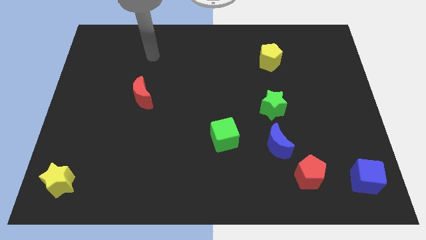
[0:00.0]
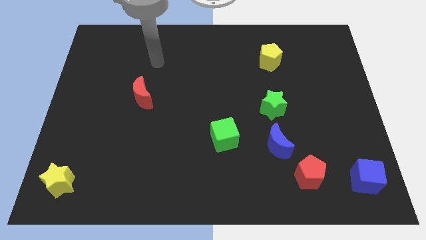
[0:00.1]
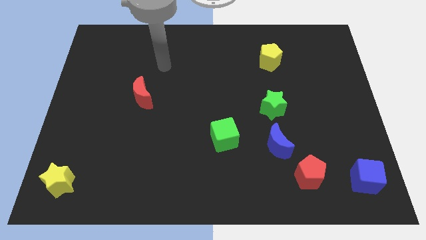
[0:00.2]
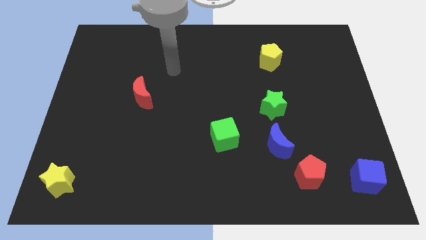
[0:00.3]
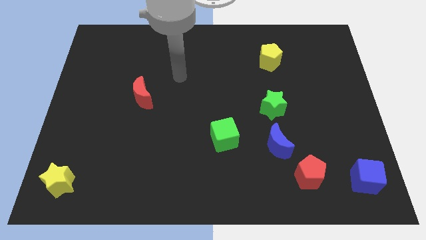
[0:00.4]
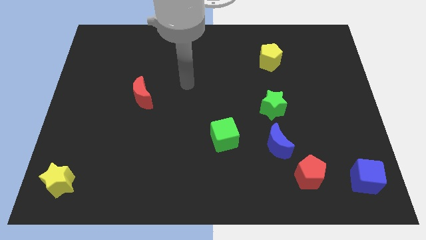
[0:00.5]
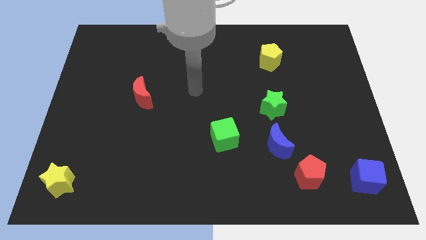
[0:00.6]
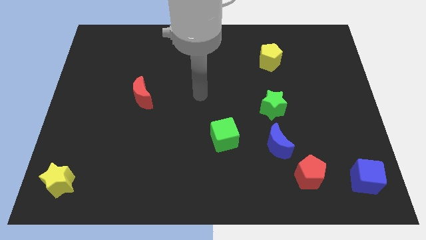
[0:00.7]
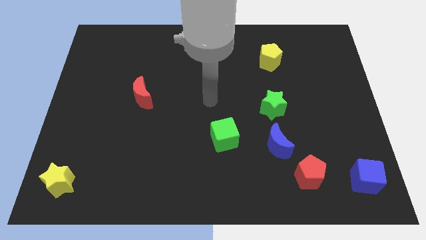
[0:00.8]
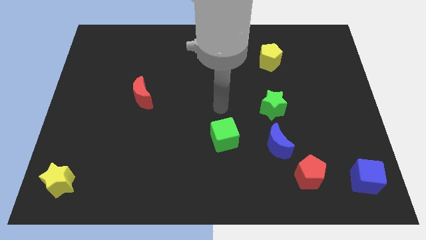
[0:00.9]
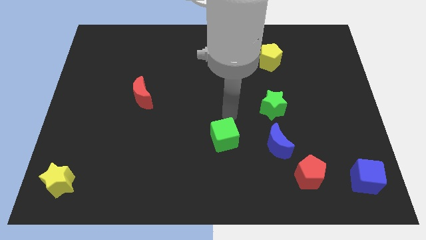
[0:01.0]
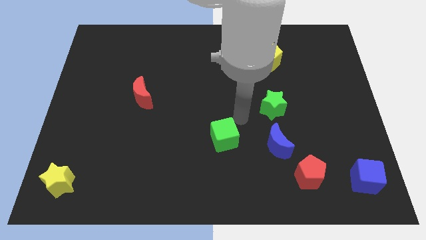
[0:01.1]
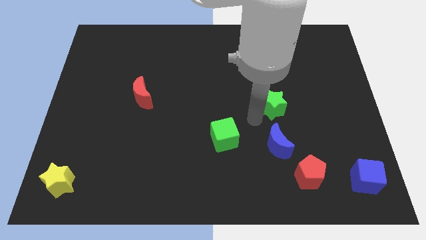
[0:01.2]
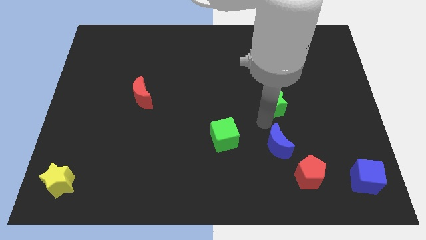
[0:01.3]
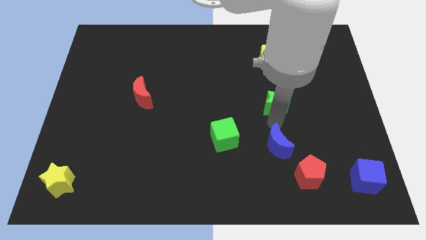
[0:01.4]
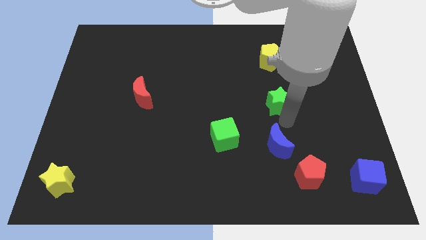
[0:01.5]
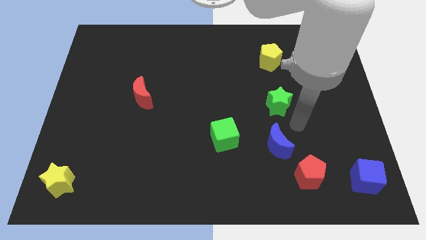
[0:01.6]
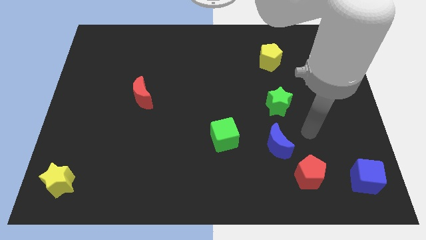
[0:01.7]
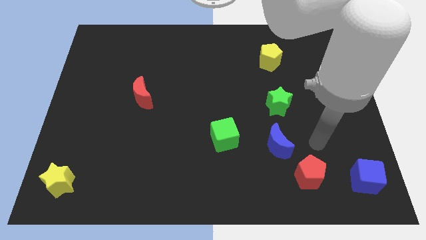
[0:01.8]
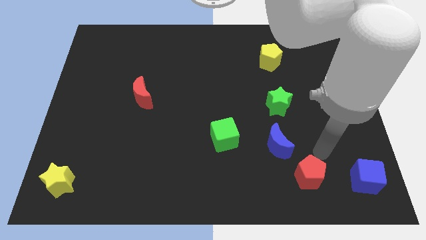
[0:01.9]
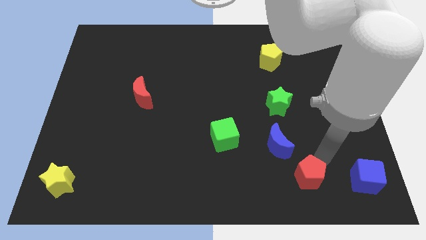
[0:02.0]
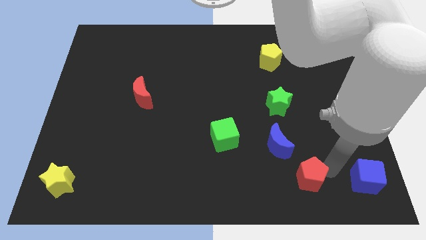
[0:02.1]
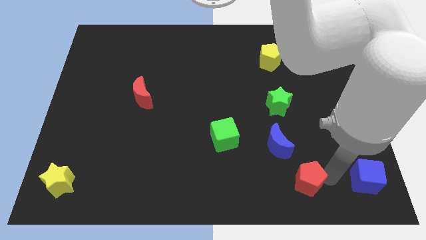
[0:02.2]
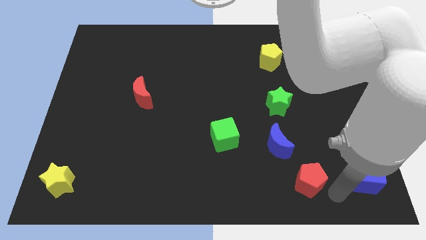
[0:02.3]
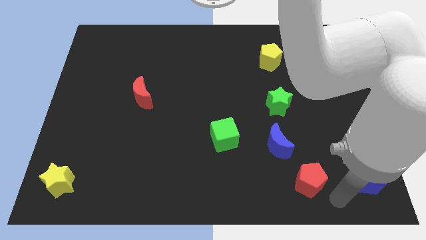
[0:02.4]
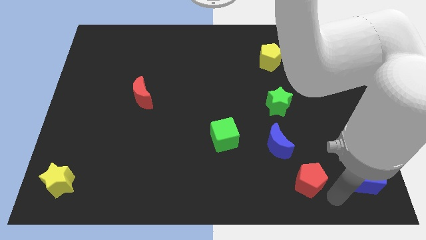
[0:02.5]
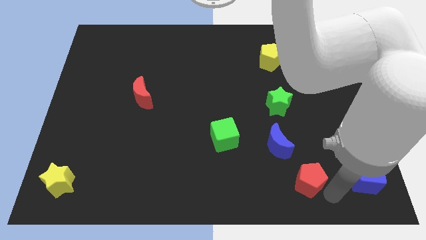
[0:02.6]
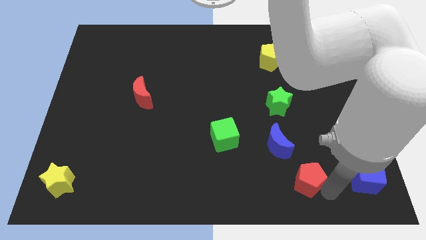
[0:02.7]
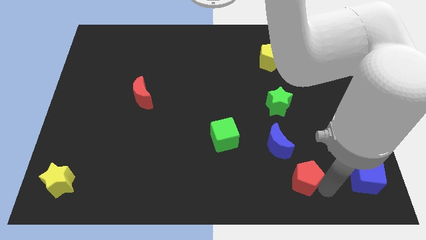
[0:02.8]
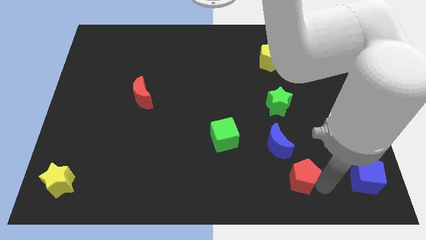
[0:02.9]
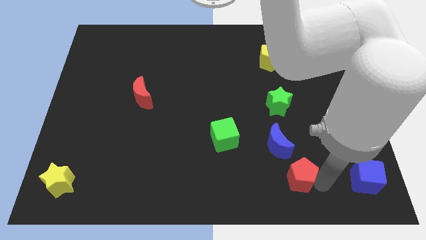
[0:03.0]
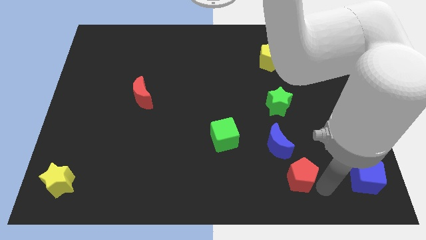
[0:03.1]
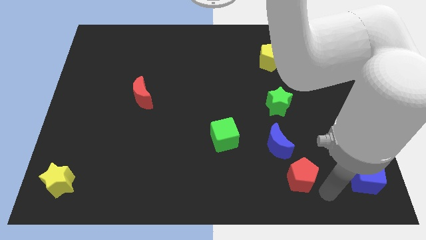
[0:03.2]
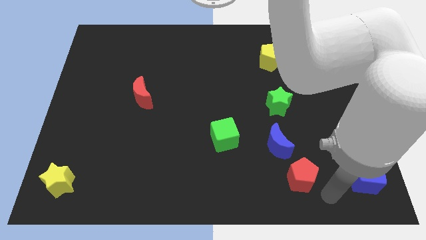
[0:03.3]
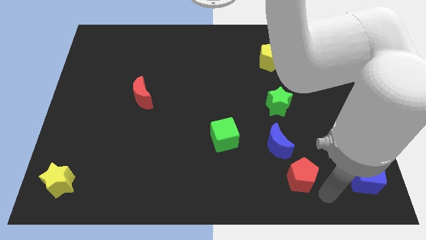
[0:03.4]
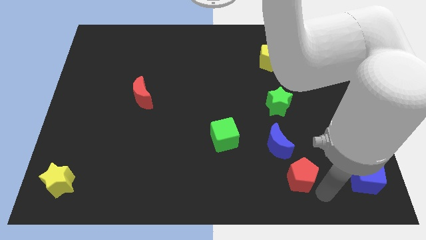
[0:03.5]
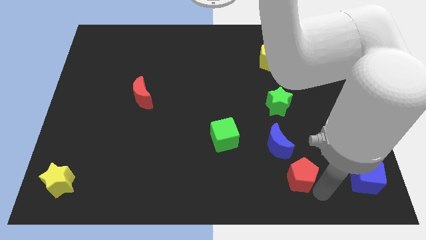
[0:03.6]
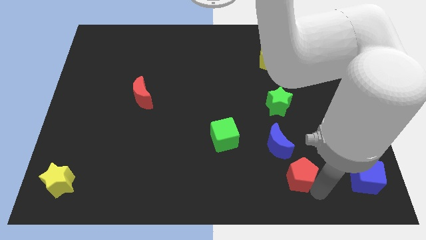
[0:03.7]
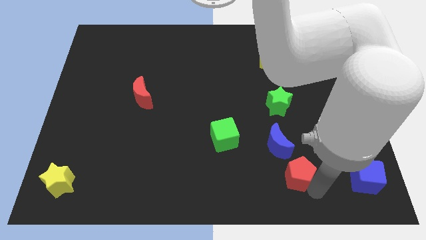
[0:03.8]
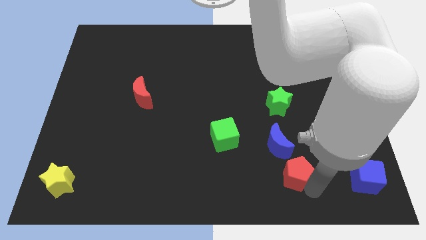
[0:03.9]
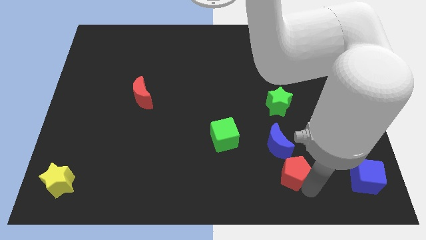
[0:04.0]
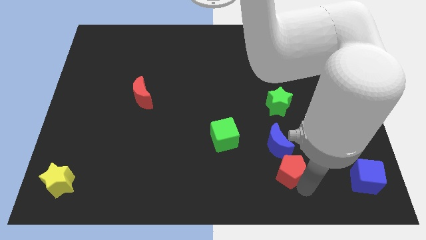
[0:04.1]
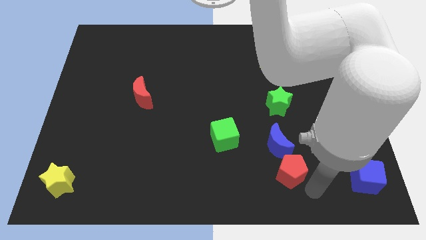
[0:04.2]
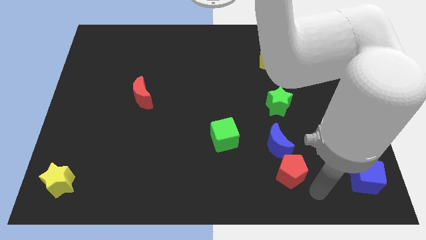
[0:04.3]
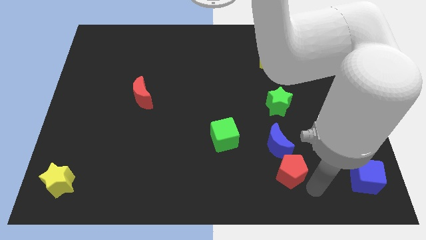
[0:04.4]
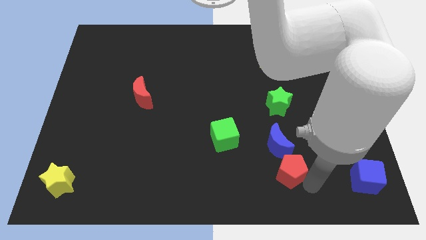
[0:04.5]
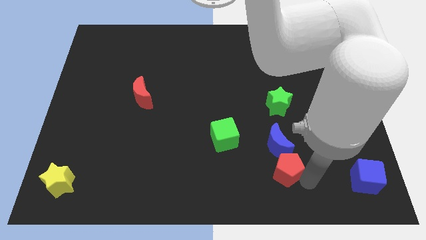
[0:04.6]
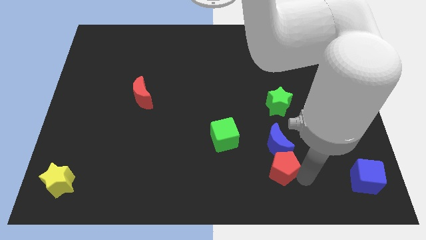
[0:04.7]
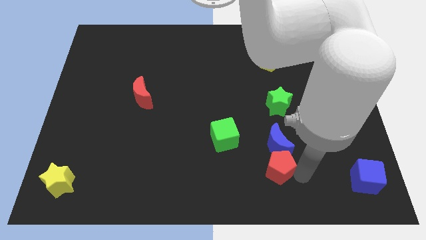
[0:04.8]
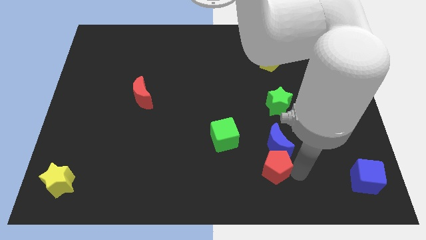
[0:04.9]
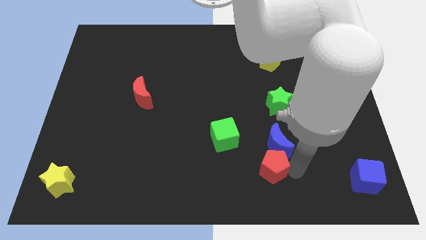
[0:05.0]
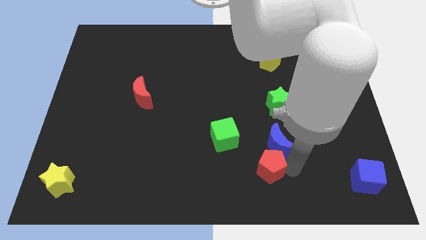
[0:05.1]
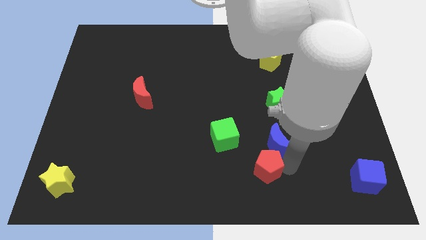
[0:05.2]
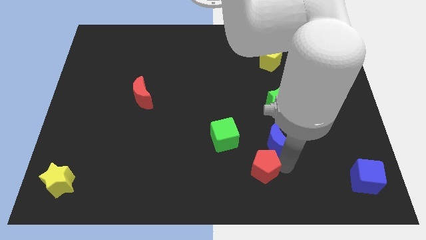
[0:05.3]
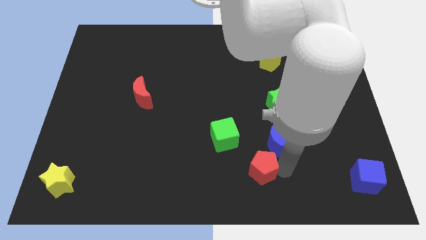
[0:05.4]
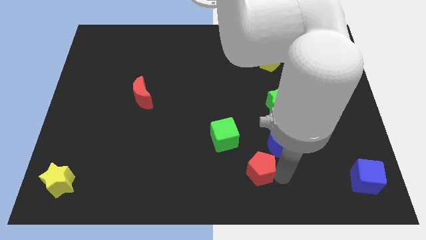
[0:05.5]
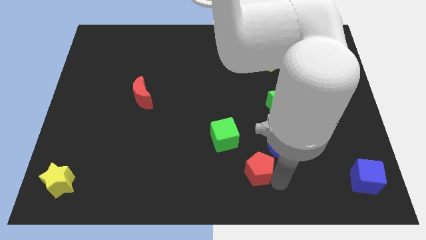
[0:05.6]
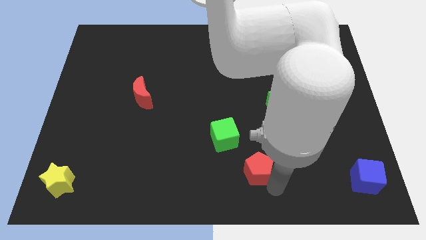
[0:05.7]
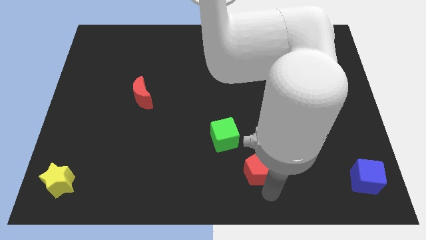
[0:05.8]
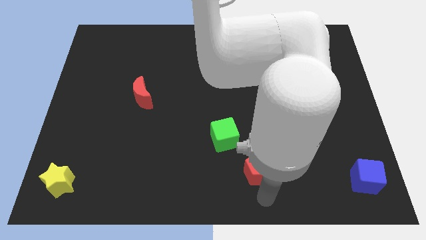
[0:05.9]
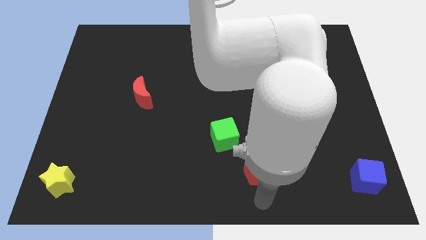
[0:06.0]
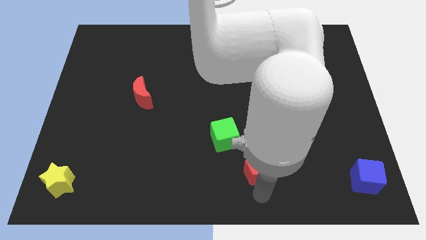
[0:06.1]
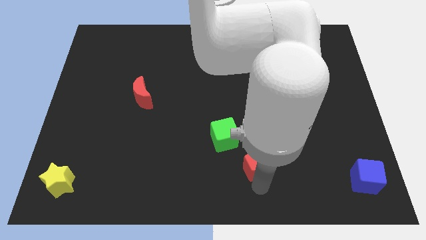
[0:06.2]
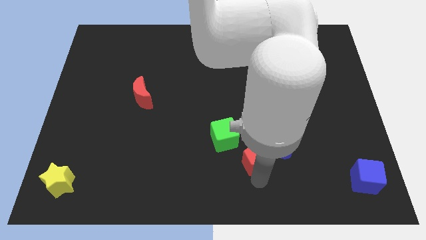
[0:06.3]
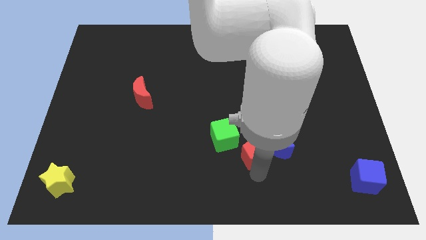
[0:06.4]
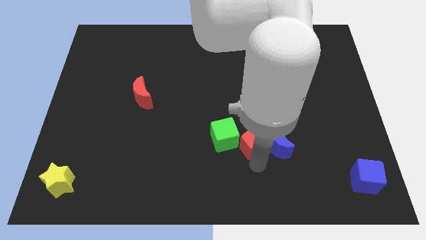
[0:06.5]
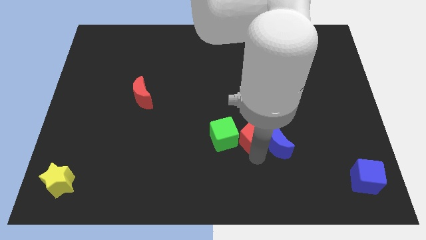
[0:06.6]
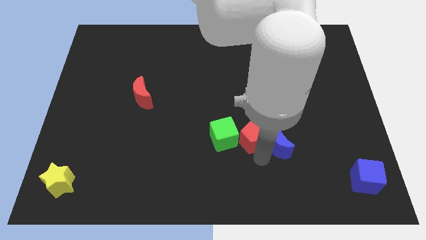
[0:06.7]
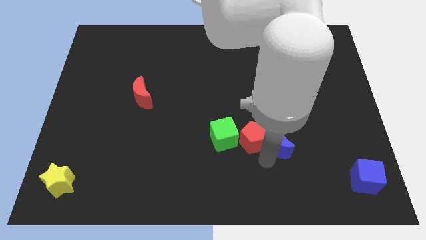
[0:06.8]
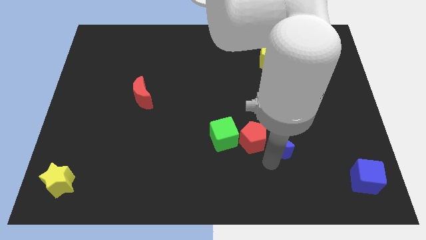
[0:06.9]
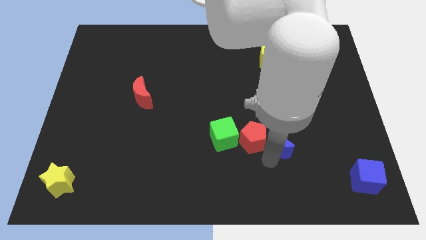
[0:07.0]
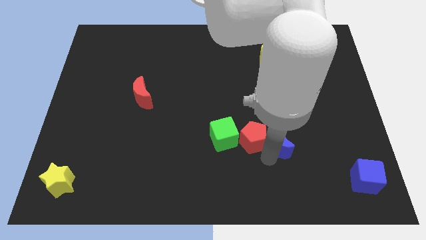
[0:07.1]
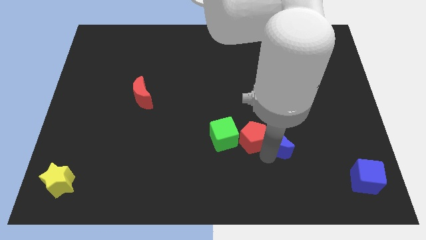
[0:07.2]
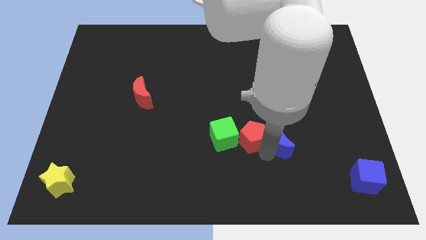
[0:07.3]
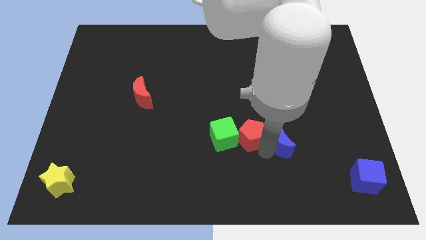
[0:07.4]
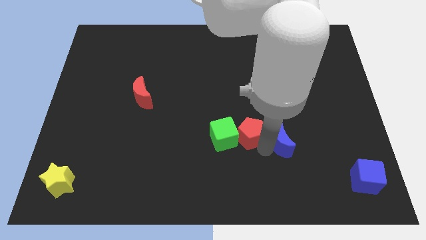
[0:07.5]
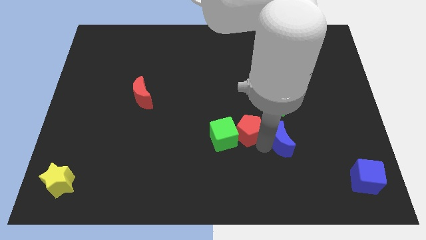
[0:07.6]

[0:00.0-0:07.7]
push the red pentagon to the middle
